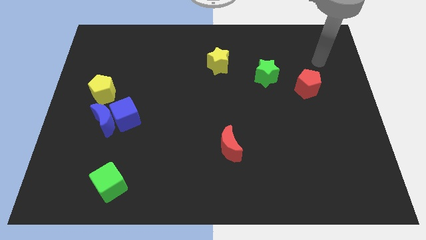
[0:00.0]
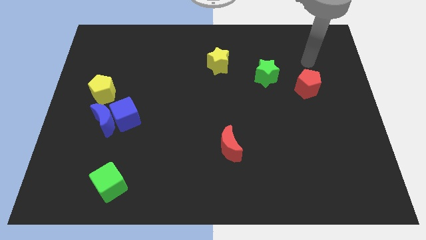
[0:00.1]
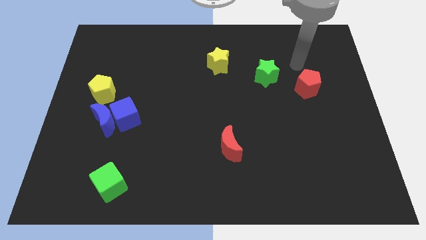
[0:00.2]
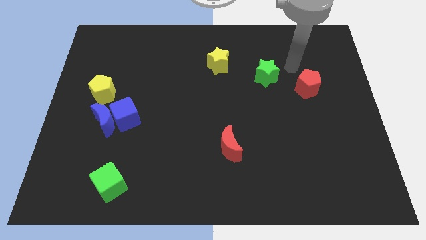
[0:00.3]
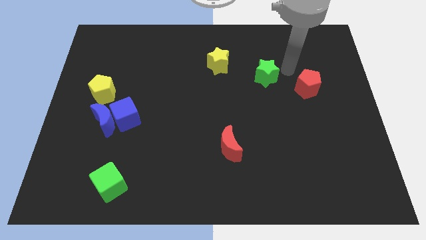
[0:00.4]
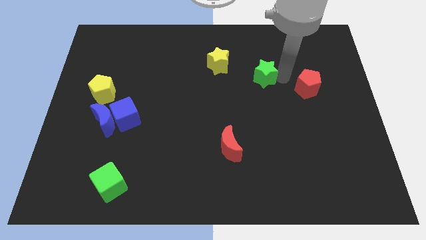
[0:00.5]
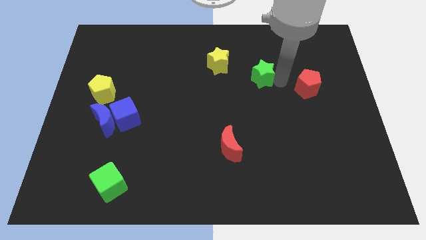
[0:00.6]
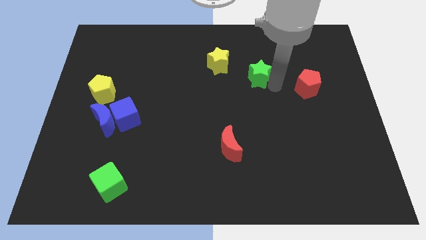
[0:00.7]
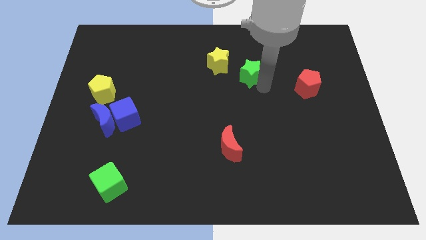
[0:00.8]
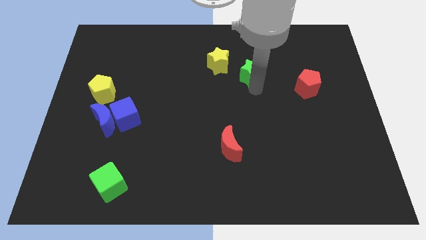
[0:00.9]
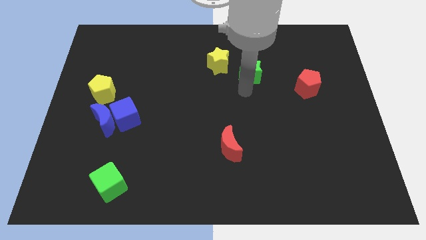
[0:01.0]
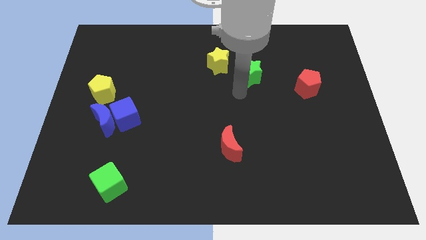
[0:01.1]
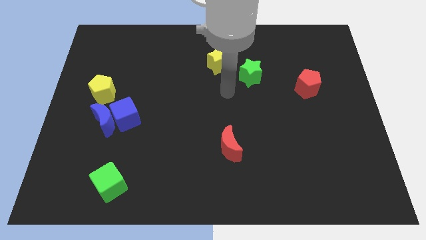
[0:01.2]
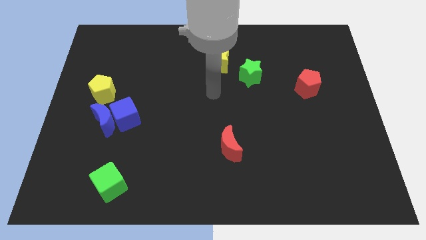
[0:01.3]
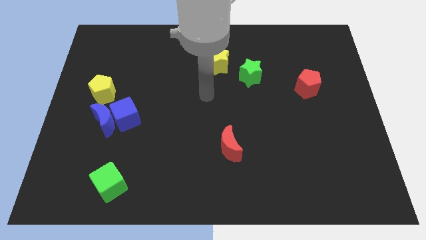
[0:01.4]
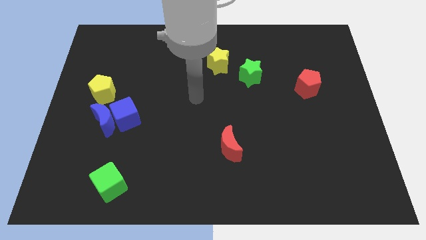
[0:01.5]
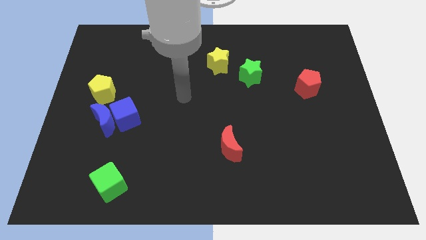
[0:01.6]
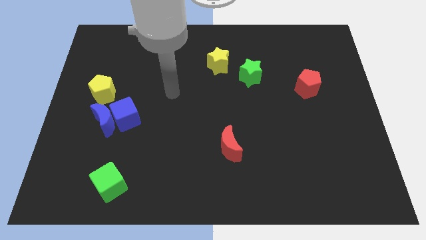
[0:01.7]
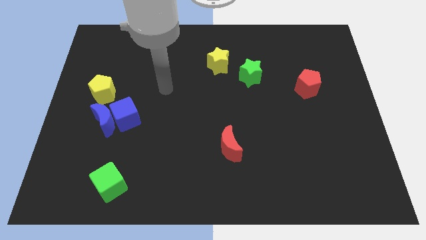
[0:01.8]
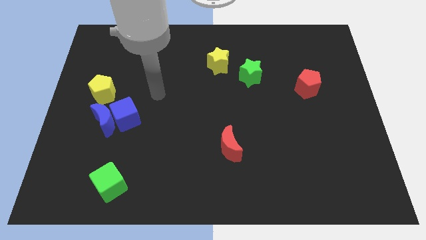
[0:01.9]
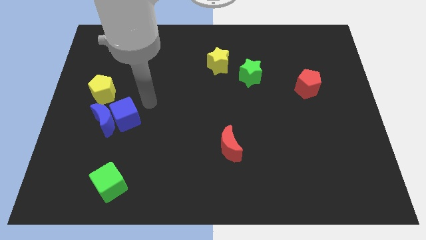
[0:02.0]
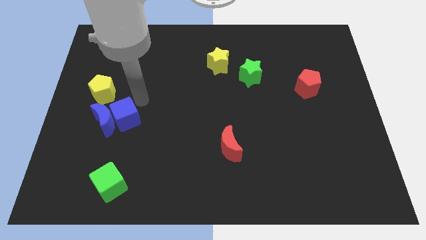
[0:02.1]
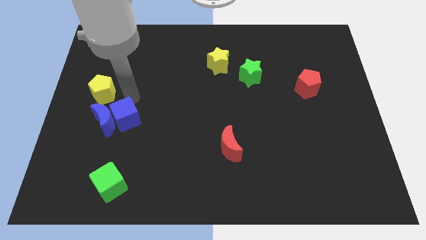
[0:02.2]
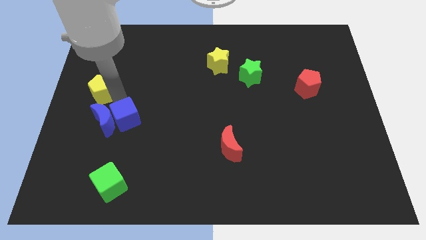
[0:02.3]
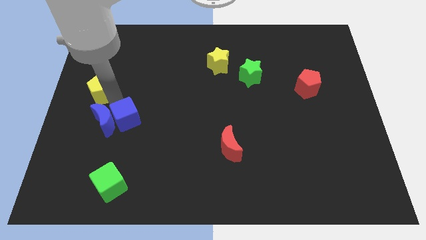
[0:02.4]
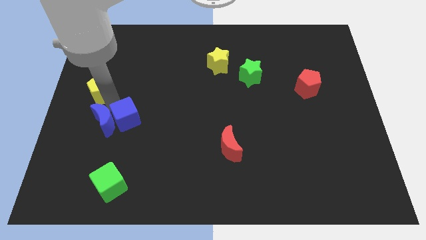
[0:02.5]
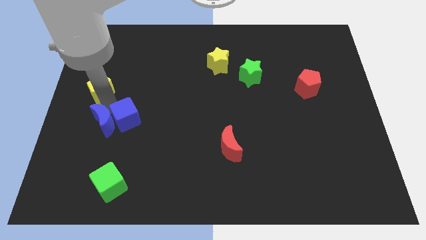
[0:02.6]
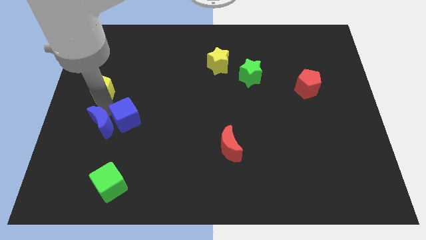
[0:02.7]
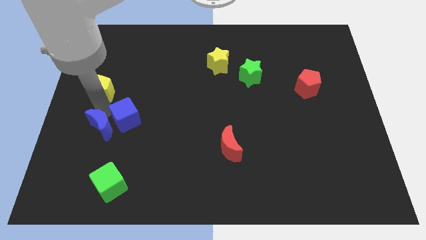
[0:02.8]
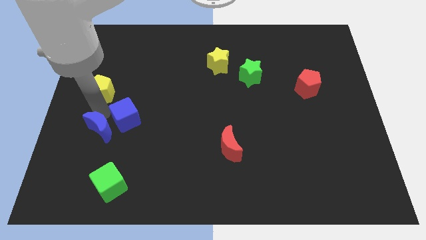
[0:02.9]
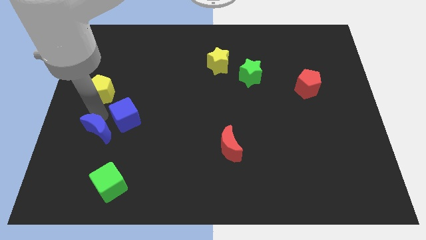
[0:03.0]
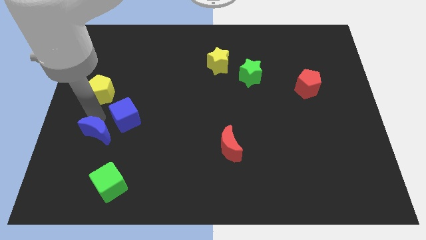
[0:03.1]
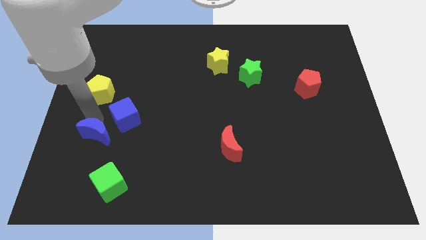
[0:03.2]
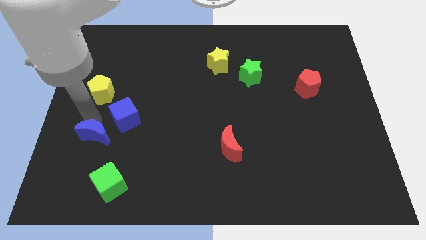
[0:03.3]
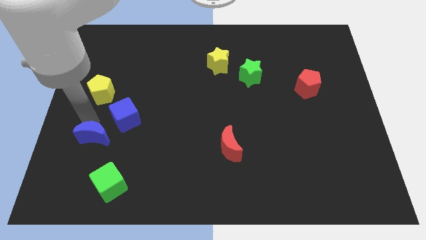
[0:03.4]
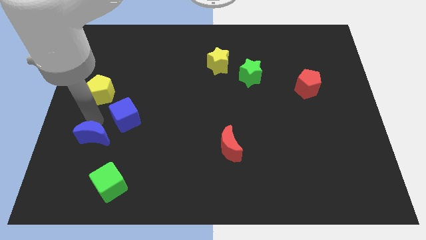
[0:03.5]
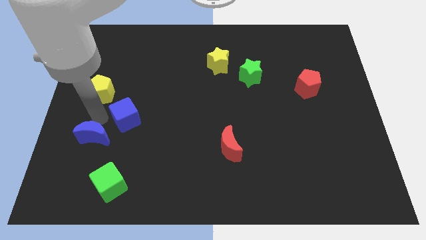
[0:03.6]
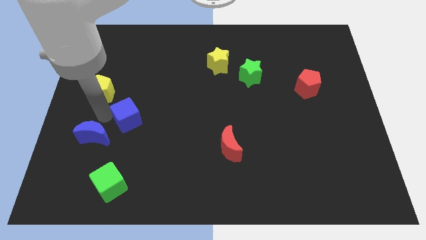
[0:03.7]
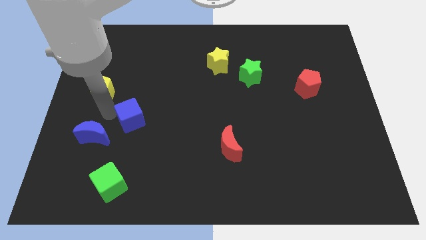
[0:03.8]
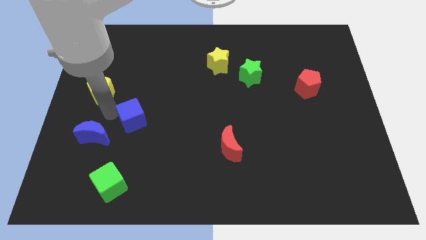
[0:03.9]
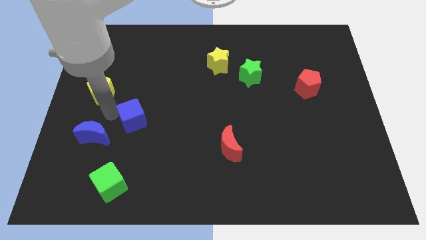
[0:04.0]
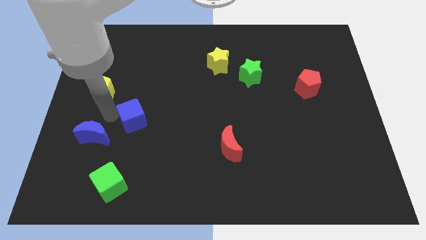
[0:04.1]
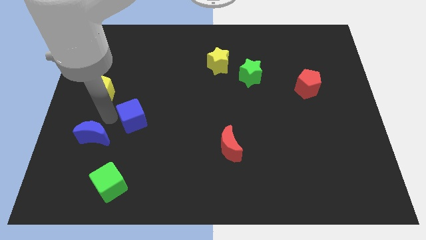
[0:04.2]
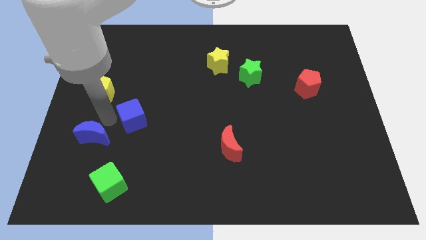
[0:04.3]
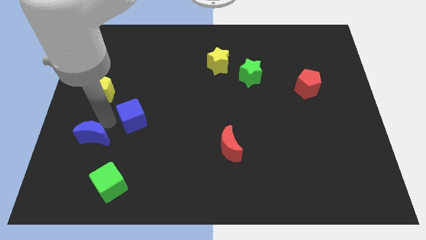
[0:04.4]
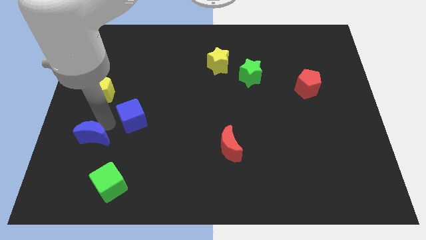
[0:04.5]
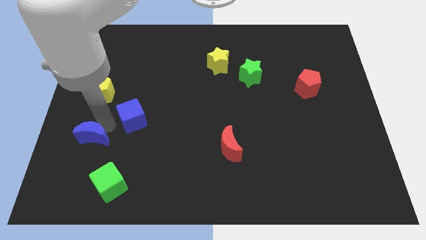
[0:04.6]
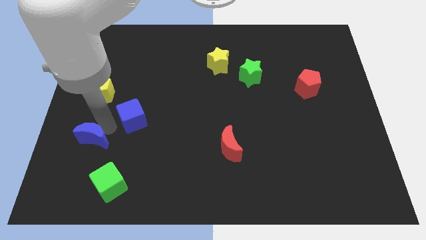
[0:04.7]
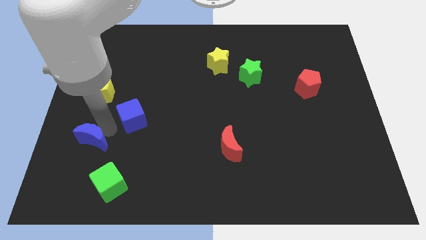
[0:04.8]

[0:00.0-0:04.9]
separate the blue moon from the blue cube and yellow pentagon

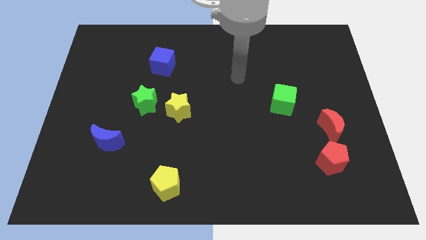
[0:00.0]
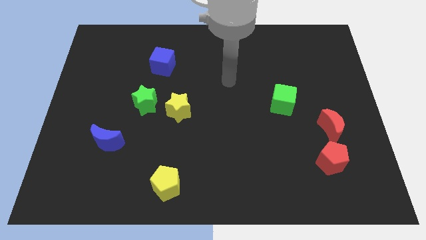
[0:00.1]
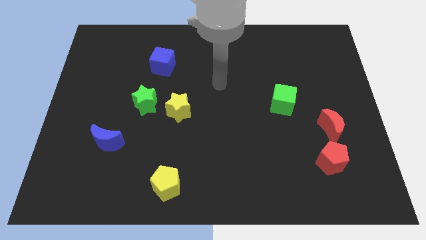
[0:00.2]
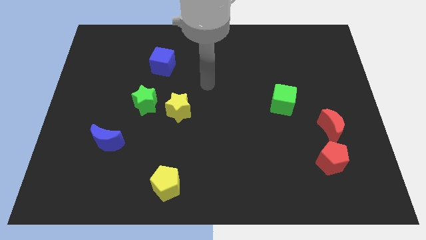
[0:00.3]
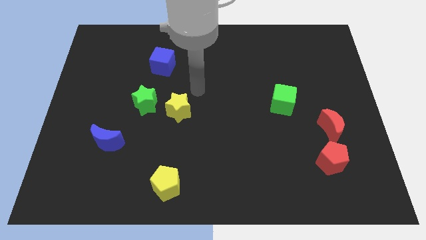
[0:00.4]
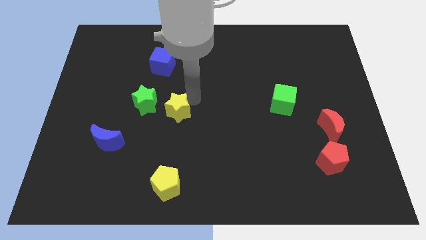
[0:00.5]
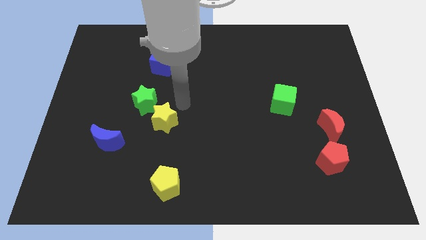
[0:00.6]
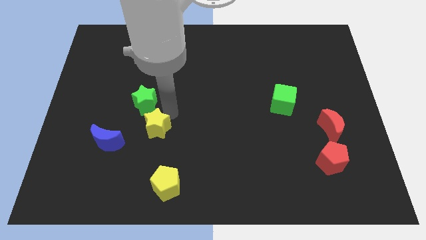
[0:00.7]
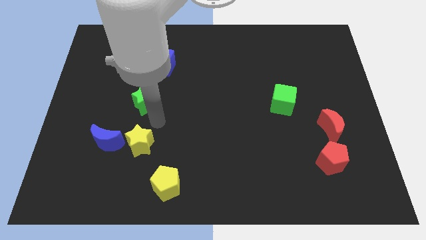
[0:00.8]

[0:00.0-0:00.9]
move the green star away from the yellow star

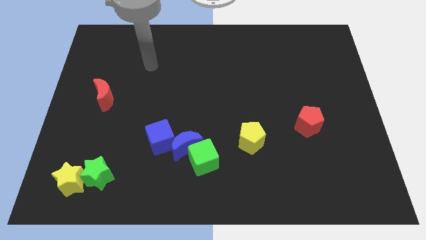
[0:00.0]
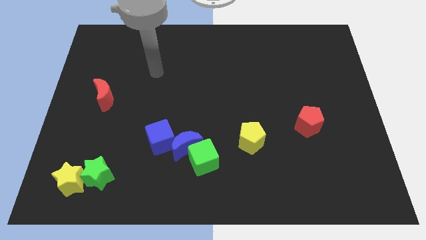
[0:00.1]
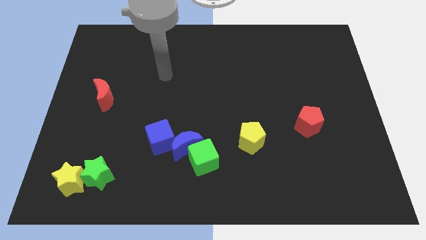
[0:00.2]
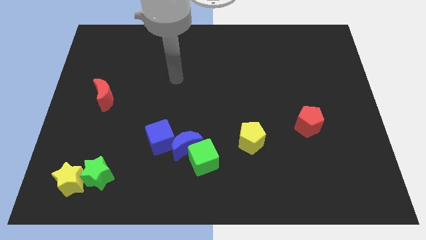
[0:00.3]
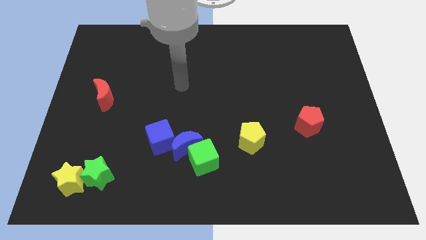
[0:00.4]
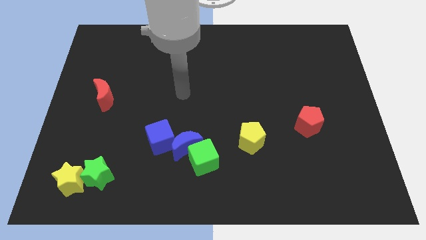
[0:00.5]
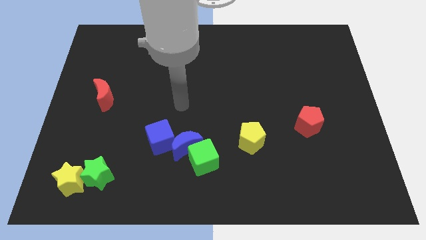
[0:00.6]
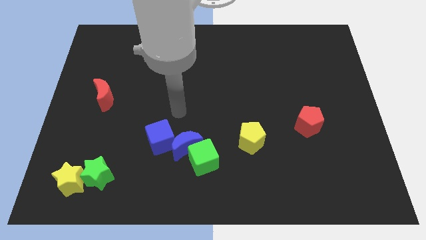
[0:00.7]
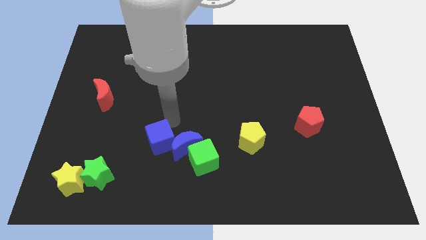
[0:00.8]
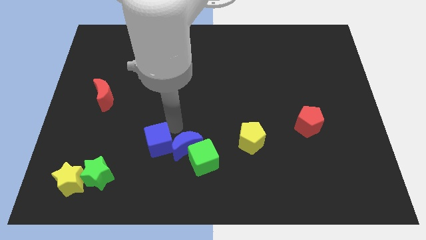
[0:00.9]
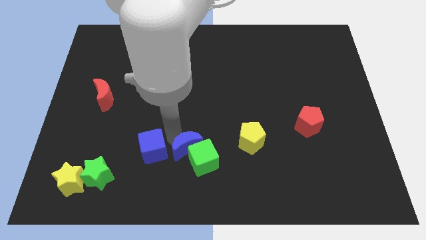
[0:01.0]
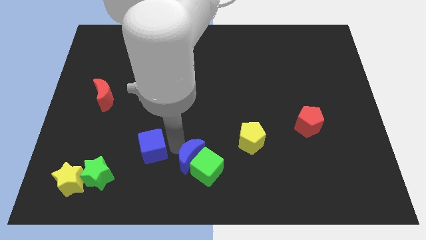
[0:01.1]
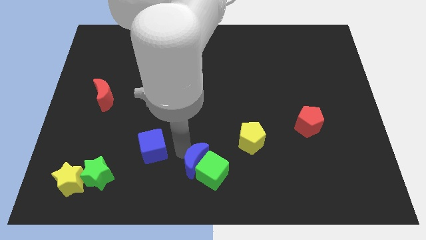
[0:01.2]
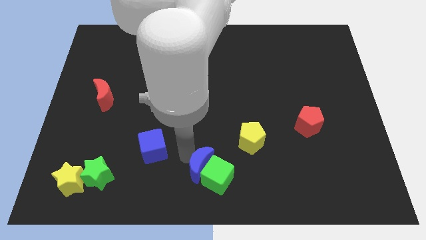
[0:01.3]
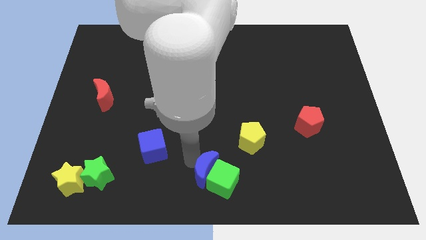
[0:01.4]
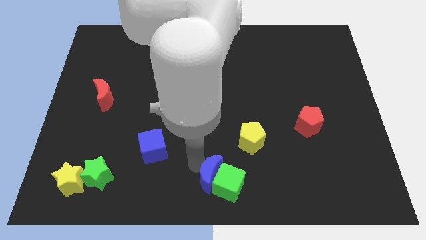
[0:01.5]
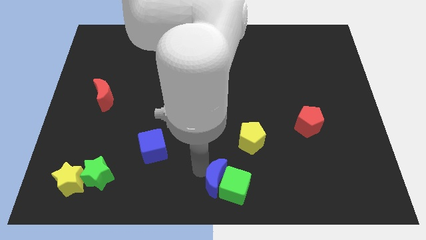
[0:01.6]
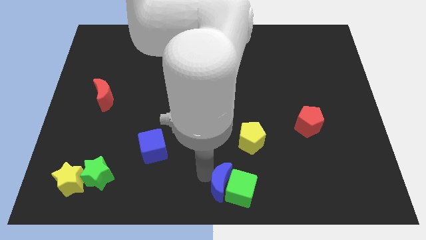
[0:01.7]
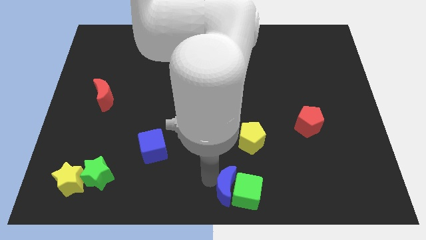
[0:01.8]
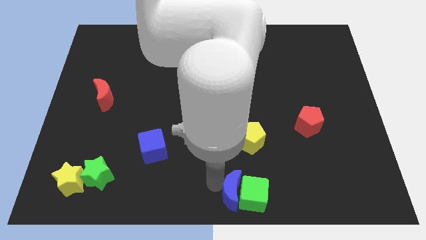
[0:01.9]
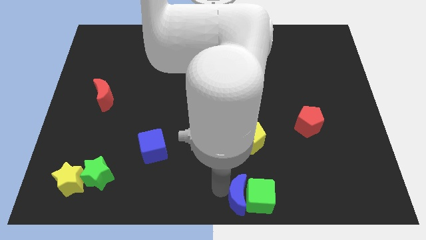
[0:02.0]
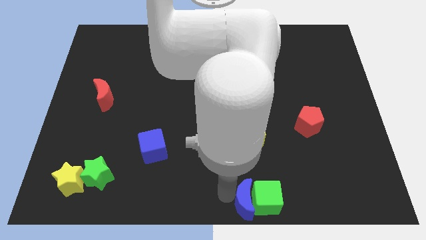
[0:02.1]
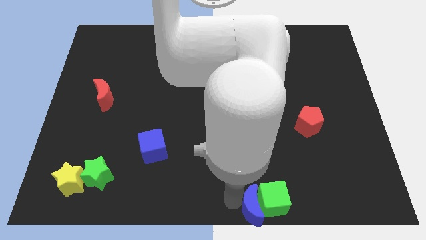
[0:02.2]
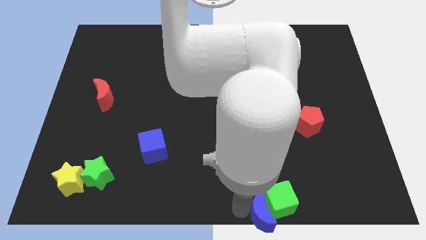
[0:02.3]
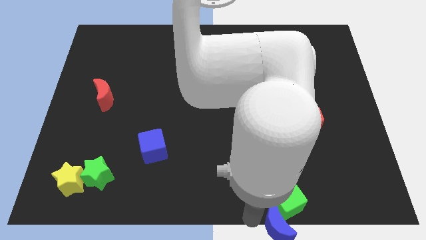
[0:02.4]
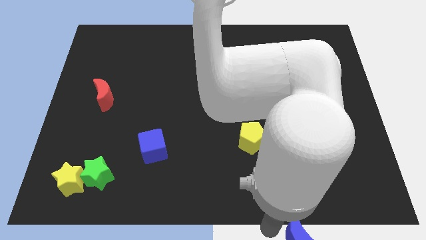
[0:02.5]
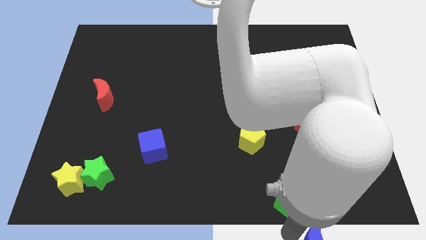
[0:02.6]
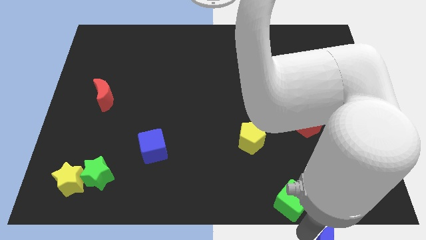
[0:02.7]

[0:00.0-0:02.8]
pull the green cube apart from the blue moon

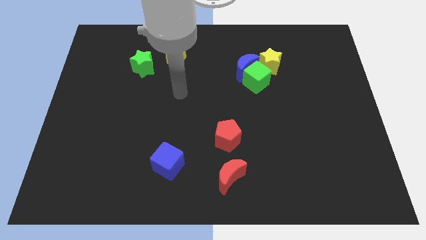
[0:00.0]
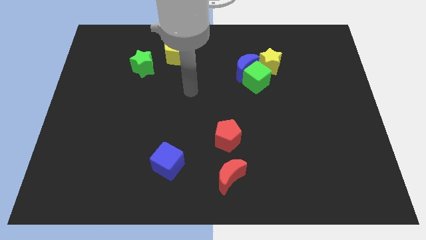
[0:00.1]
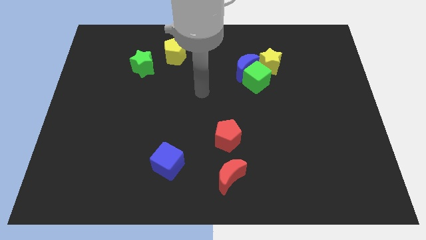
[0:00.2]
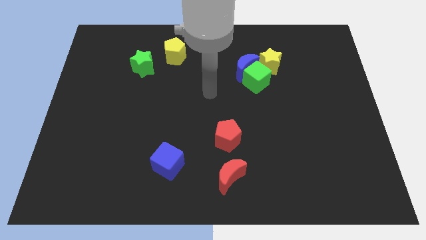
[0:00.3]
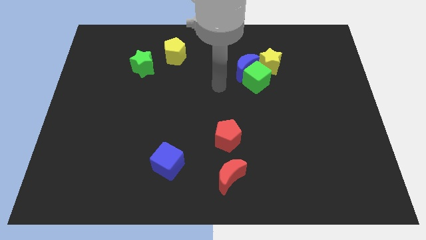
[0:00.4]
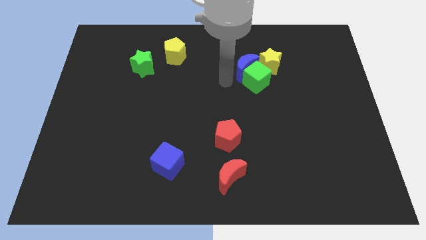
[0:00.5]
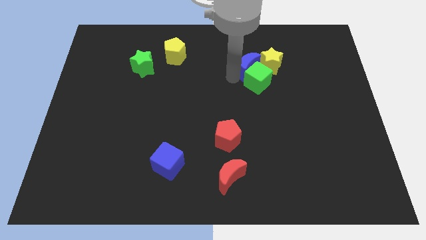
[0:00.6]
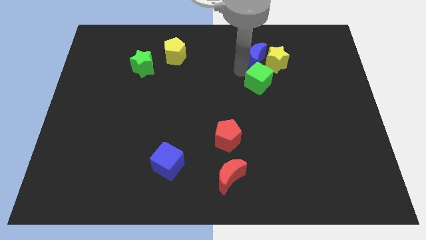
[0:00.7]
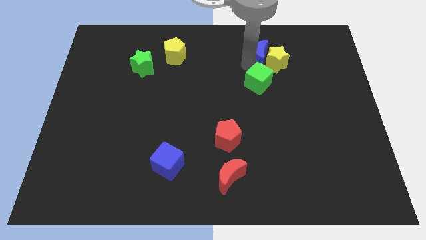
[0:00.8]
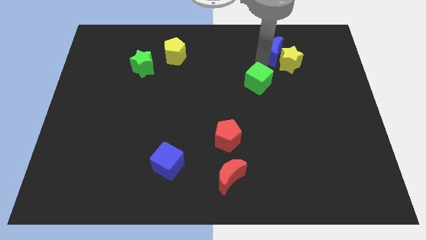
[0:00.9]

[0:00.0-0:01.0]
move the green cube away from the blue moon and yellow star
